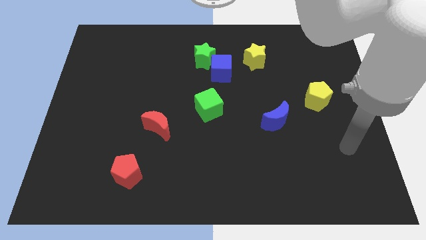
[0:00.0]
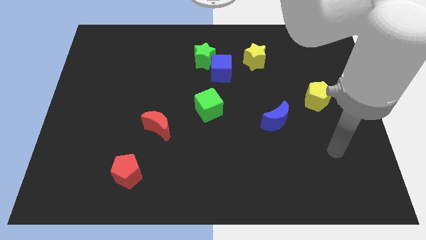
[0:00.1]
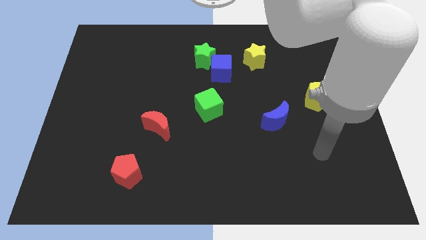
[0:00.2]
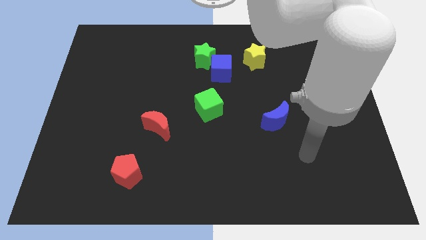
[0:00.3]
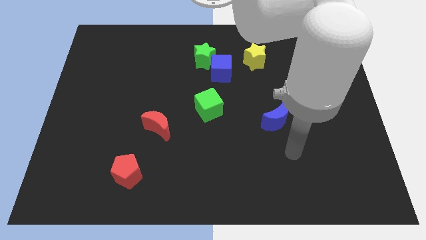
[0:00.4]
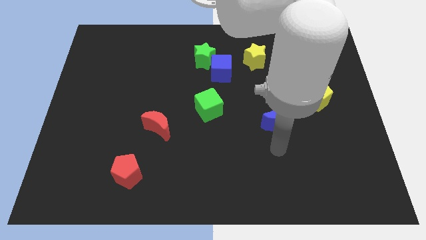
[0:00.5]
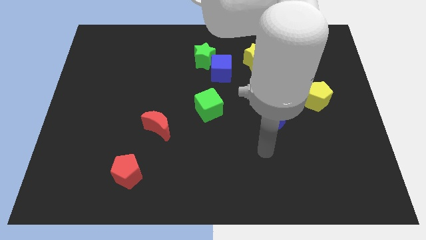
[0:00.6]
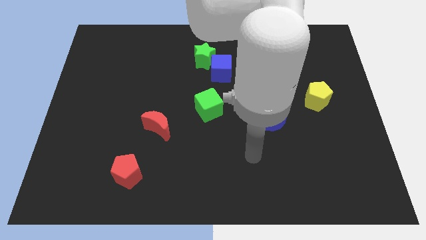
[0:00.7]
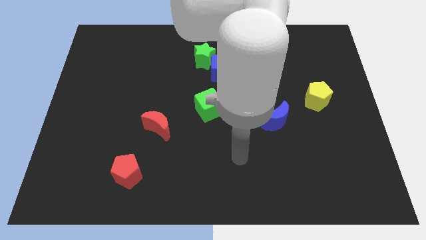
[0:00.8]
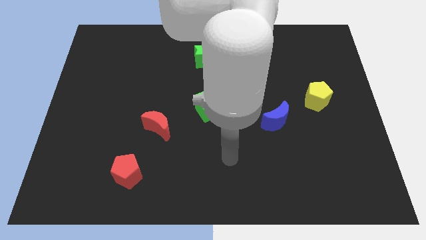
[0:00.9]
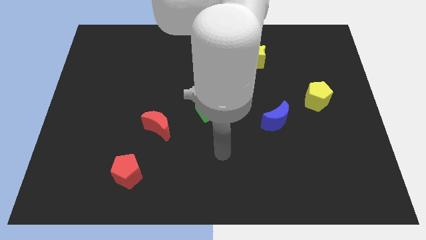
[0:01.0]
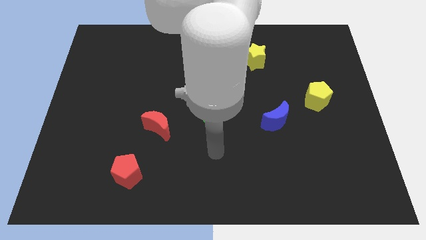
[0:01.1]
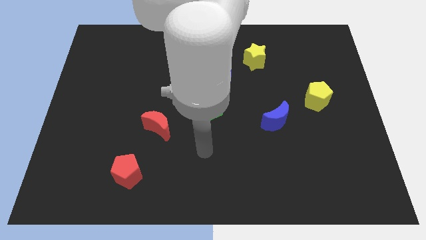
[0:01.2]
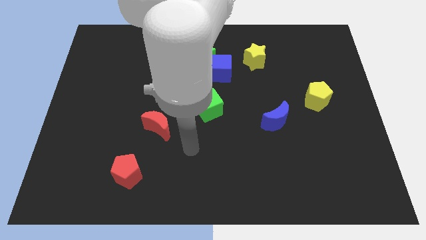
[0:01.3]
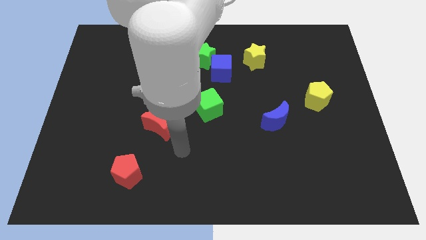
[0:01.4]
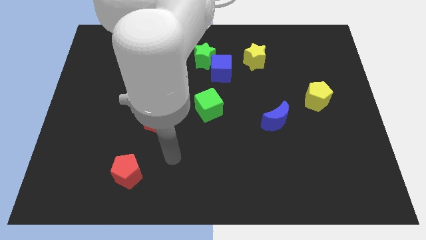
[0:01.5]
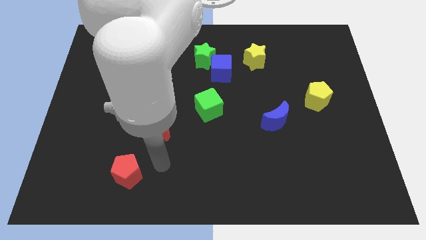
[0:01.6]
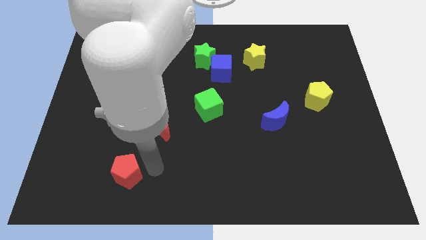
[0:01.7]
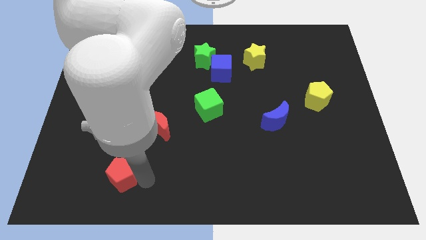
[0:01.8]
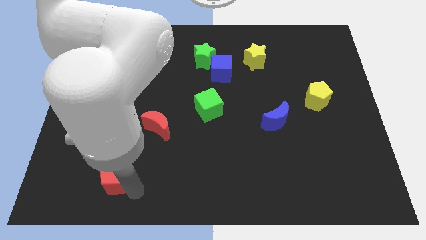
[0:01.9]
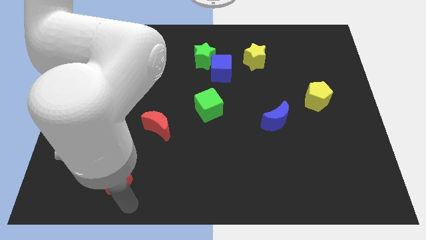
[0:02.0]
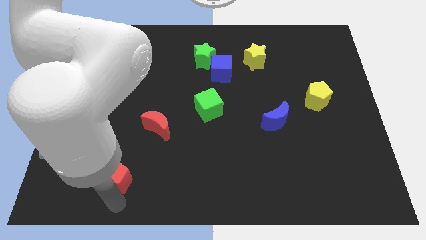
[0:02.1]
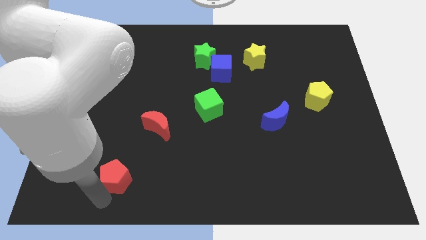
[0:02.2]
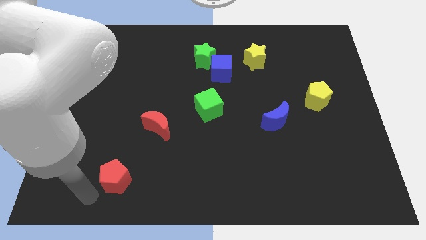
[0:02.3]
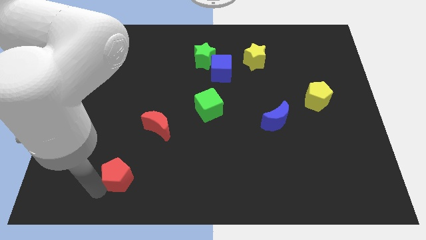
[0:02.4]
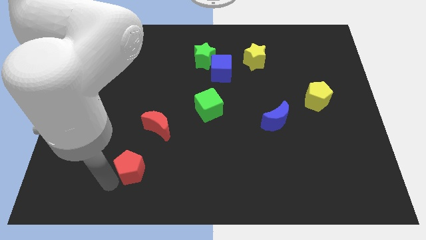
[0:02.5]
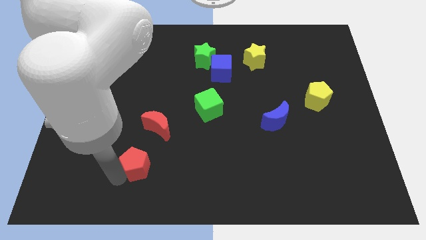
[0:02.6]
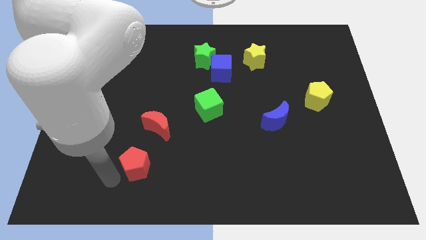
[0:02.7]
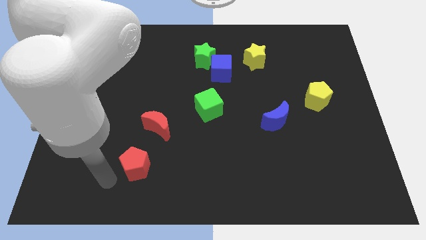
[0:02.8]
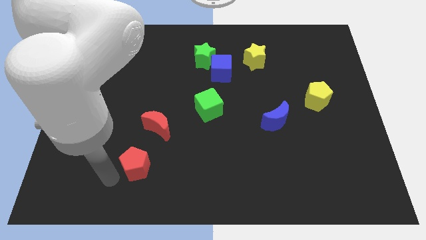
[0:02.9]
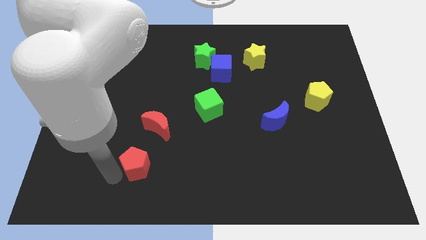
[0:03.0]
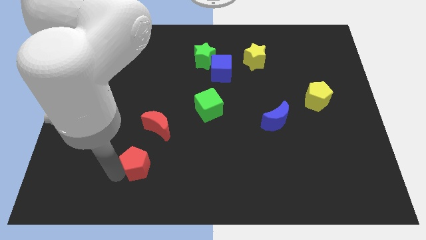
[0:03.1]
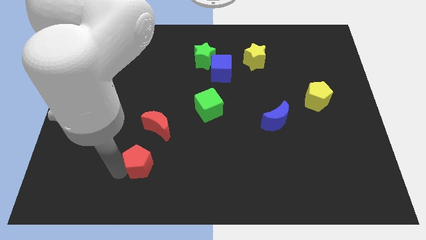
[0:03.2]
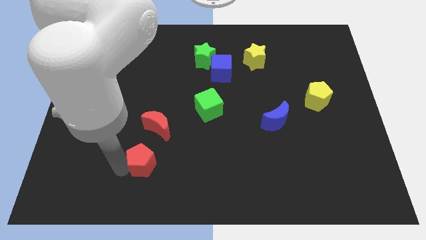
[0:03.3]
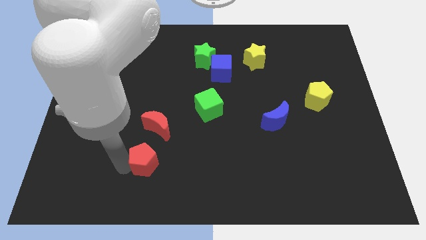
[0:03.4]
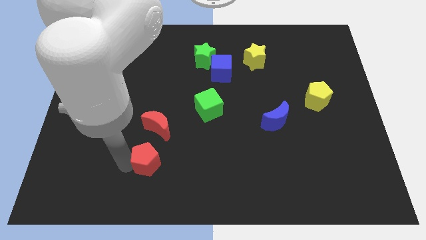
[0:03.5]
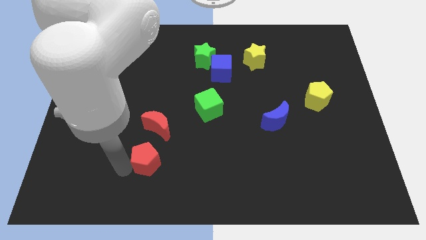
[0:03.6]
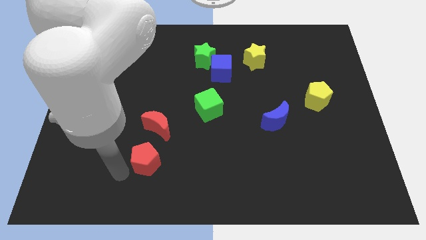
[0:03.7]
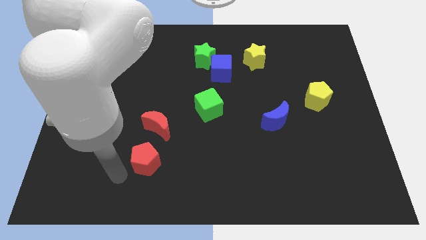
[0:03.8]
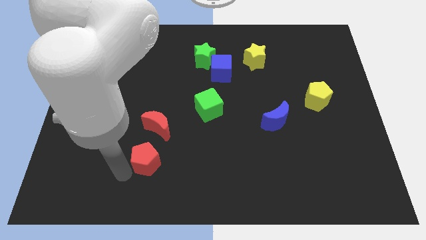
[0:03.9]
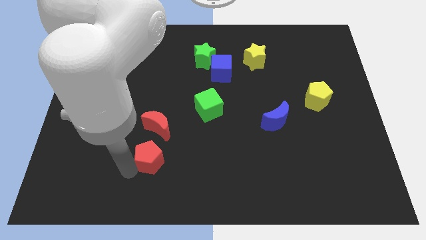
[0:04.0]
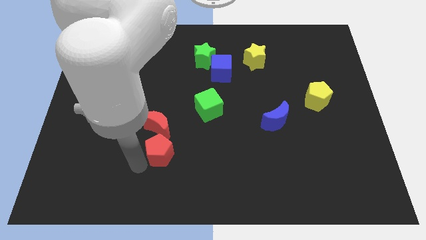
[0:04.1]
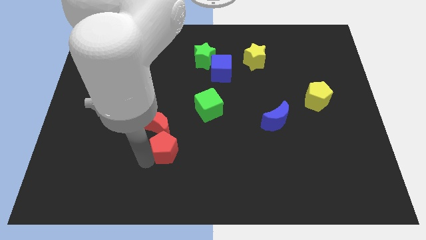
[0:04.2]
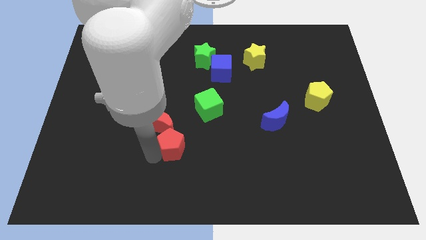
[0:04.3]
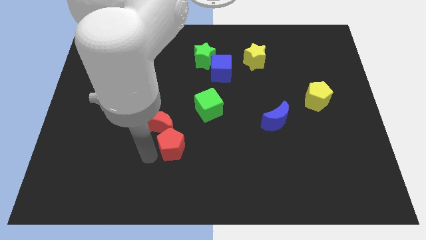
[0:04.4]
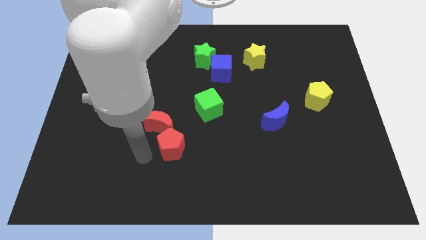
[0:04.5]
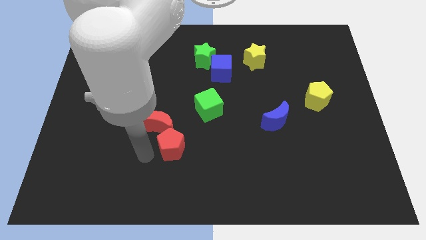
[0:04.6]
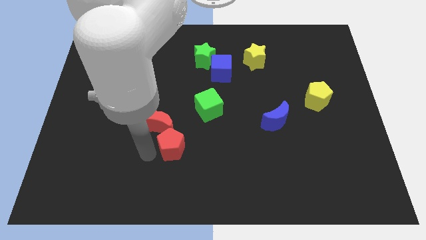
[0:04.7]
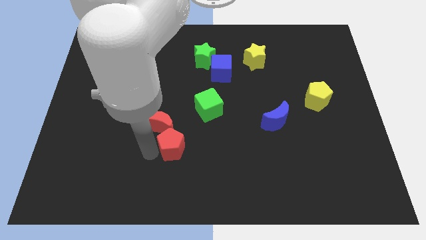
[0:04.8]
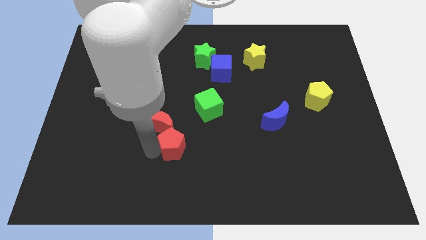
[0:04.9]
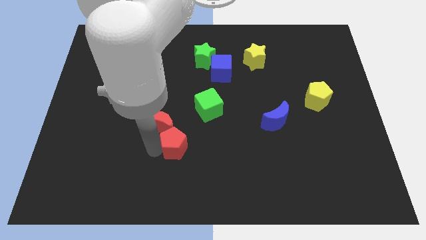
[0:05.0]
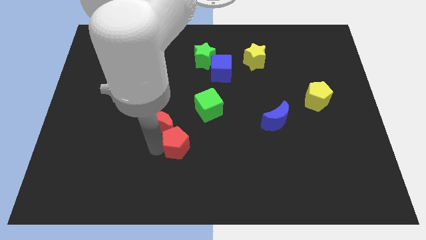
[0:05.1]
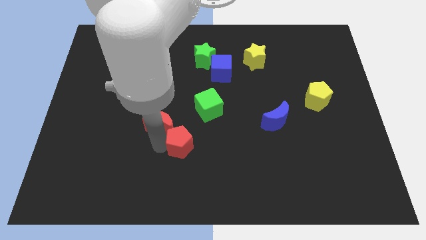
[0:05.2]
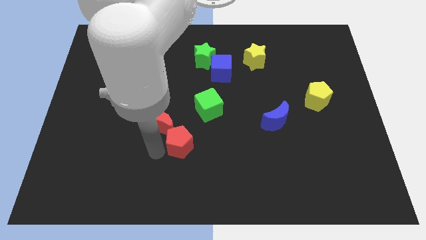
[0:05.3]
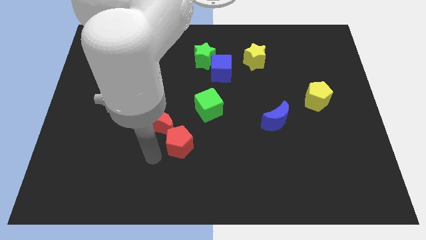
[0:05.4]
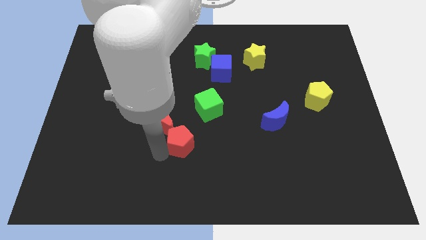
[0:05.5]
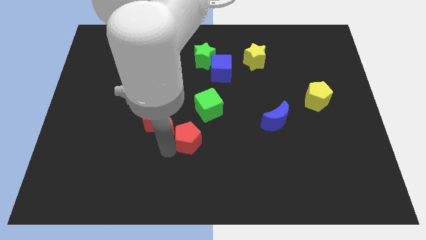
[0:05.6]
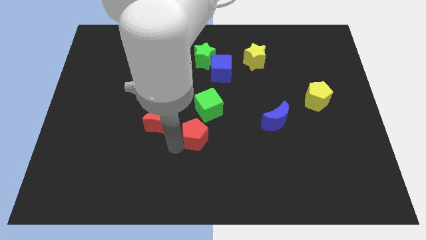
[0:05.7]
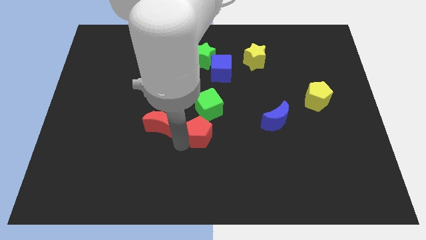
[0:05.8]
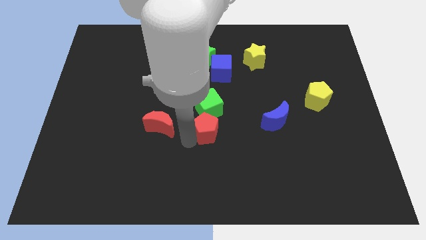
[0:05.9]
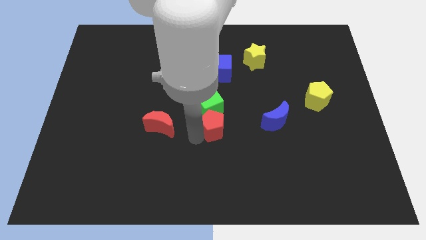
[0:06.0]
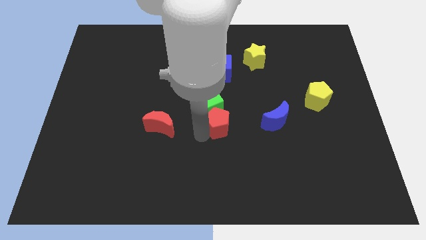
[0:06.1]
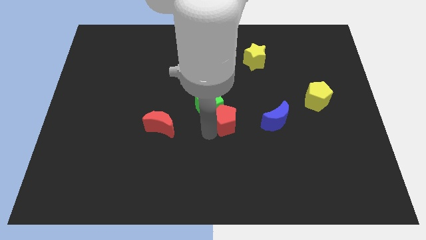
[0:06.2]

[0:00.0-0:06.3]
slide the red pentagon to the bottom side of the blue cube

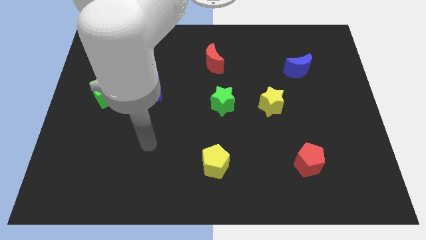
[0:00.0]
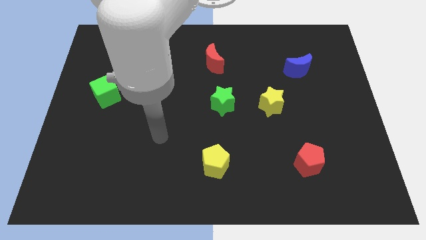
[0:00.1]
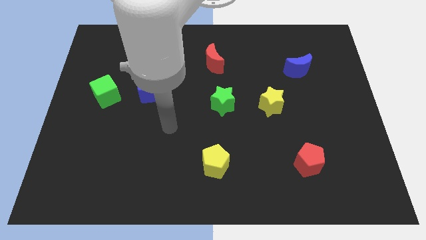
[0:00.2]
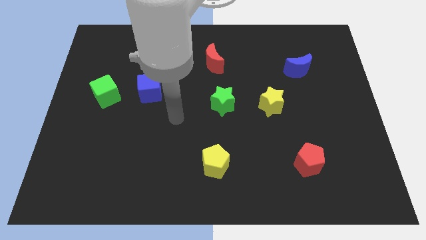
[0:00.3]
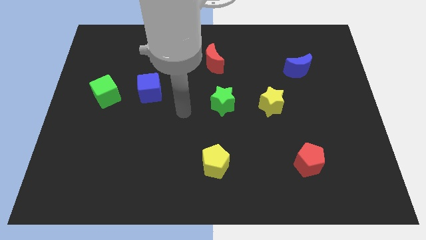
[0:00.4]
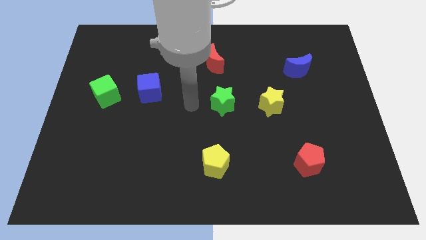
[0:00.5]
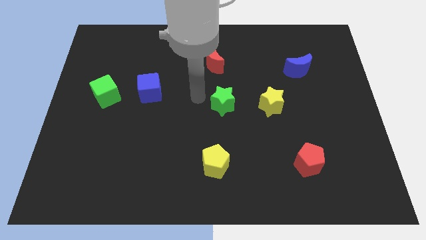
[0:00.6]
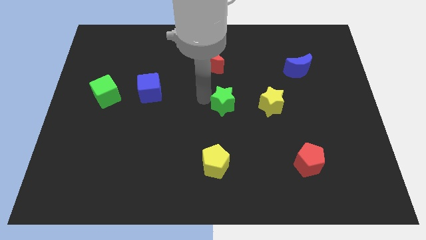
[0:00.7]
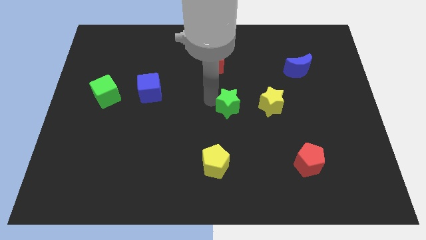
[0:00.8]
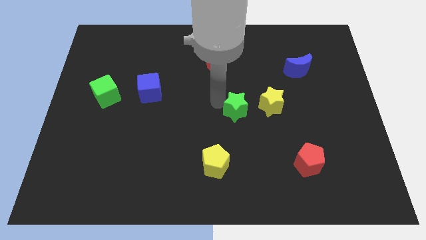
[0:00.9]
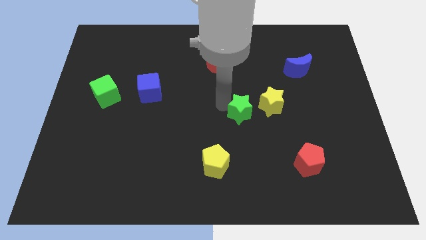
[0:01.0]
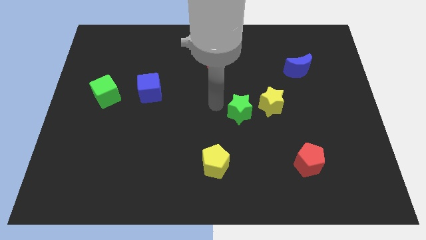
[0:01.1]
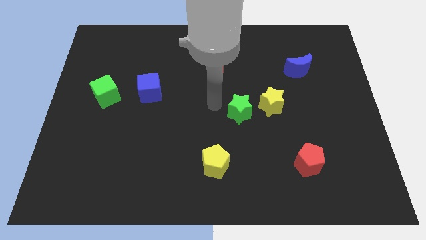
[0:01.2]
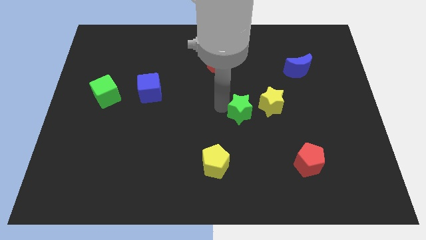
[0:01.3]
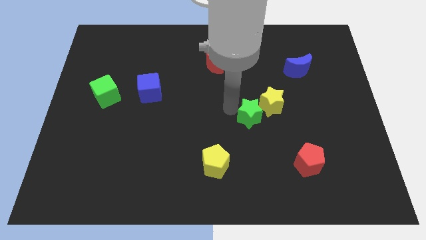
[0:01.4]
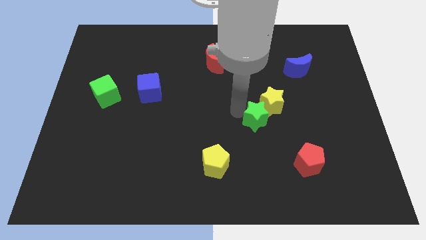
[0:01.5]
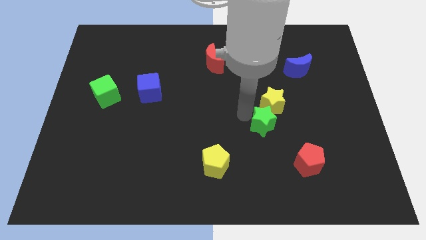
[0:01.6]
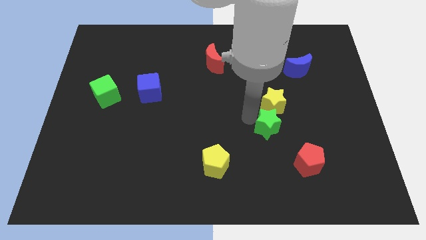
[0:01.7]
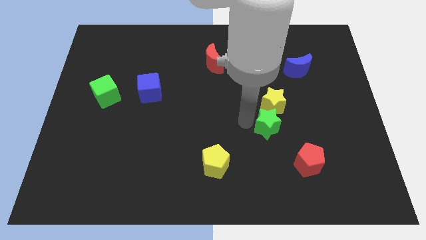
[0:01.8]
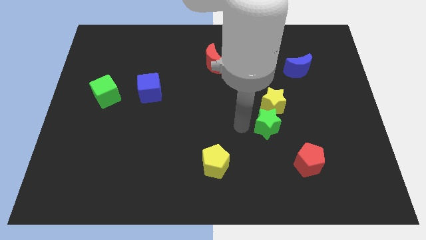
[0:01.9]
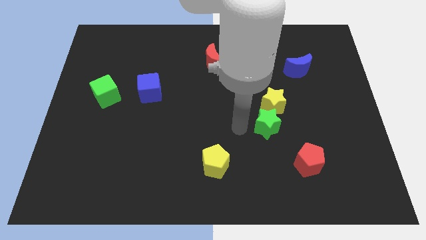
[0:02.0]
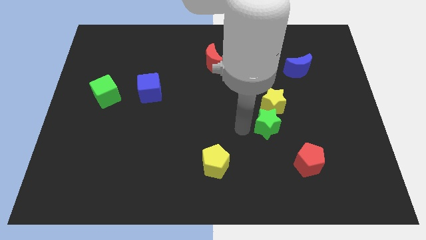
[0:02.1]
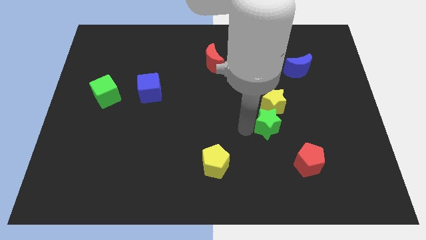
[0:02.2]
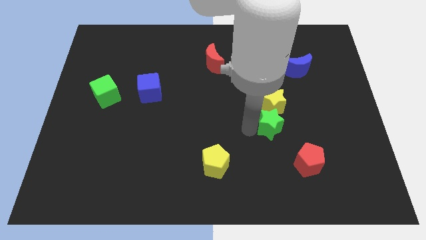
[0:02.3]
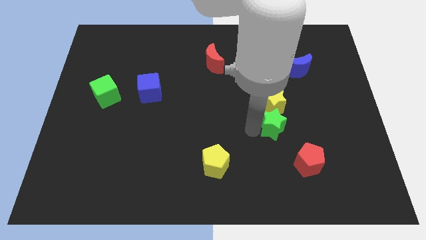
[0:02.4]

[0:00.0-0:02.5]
push the green star to the bottom right side of the yellow star
